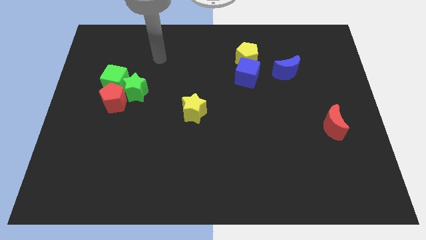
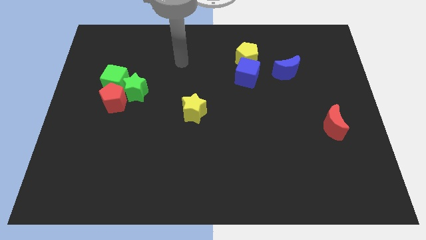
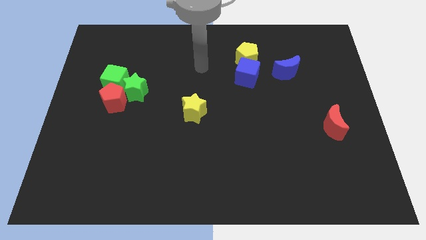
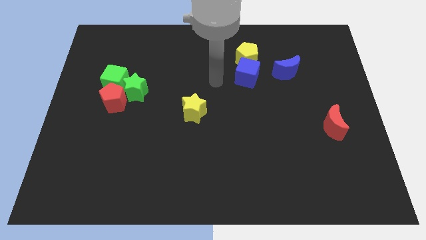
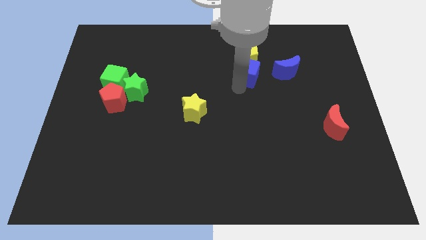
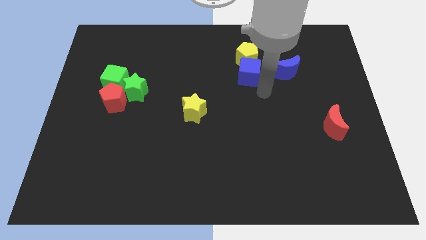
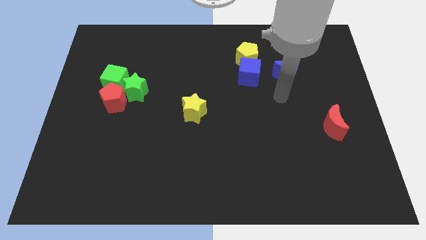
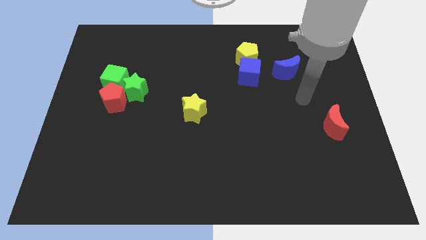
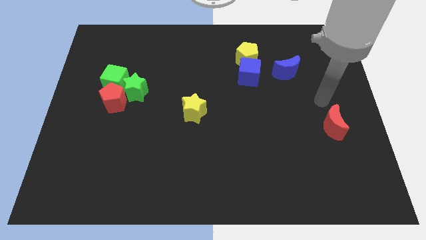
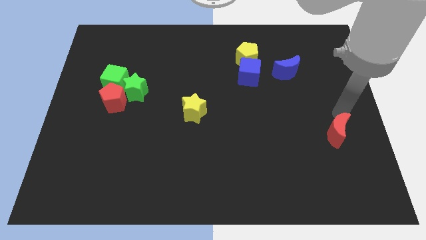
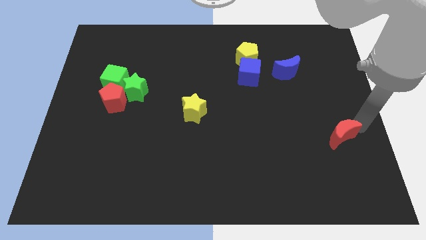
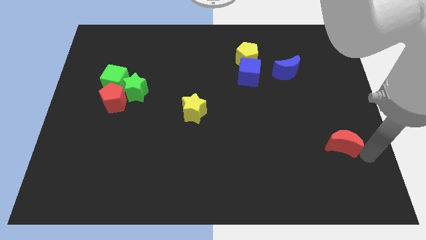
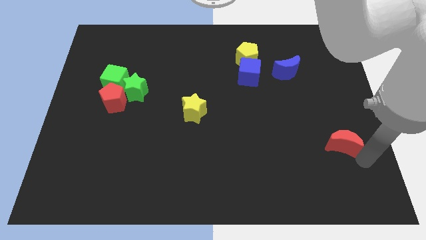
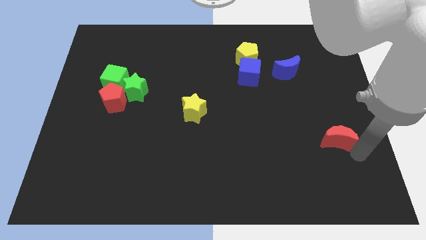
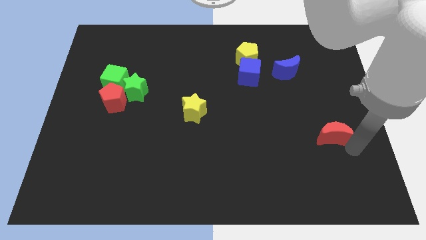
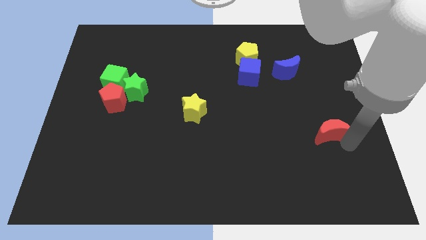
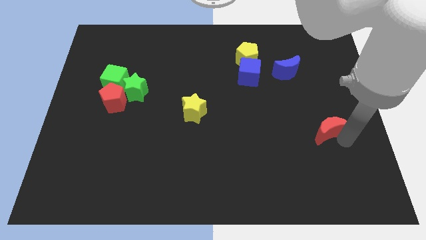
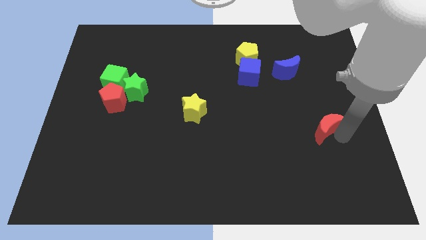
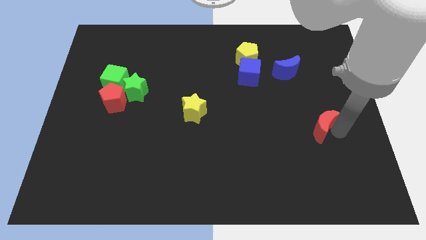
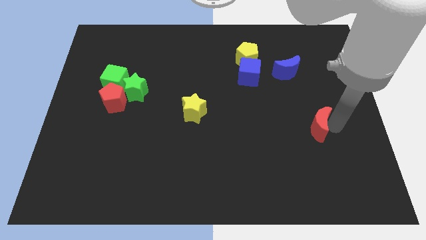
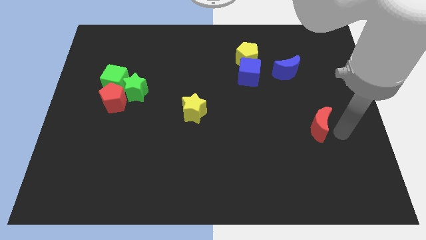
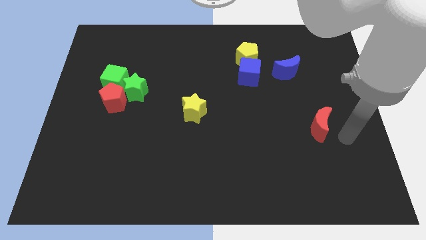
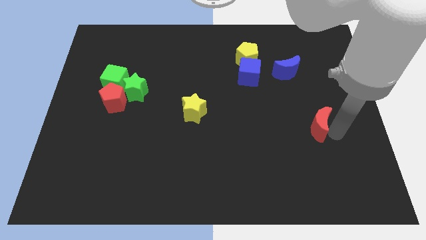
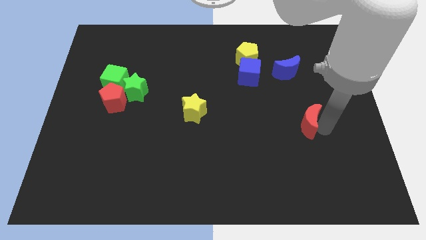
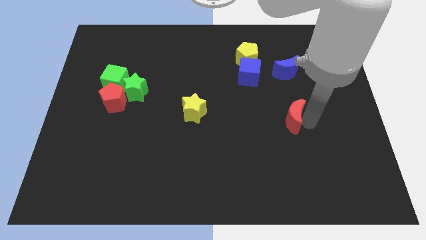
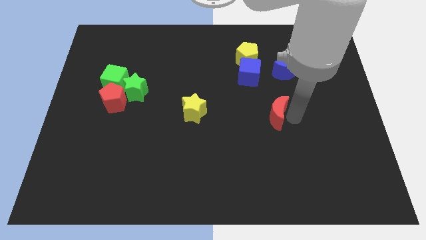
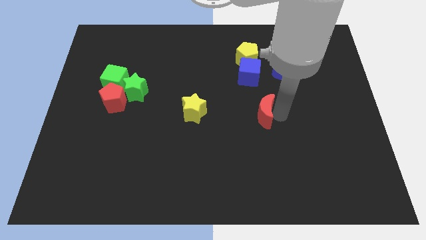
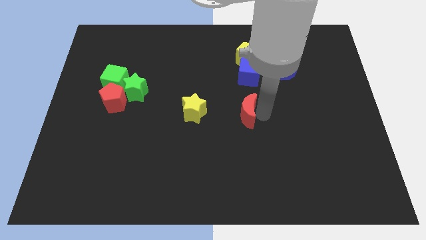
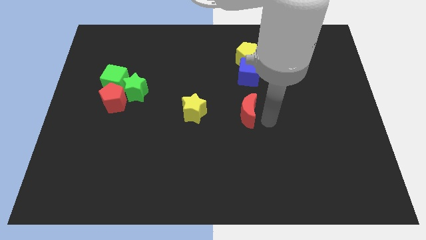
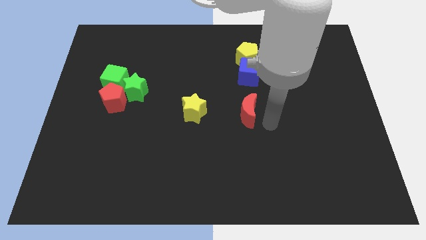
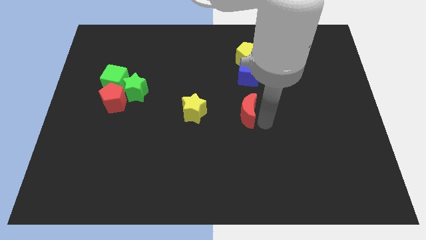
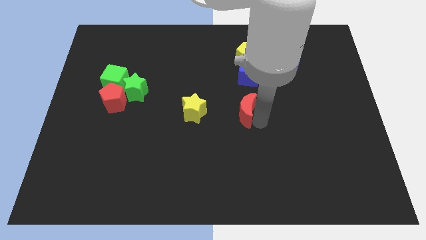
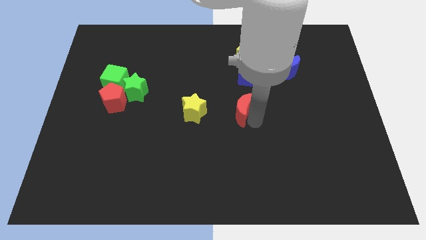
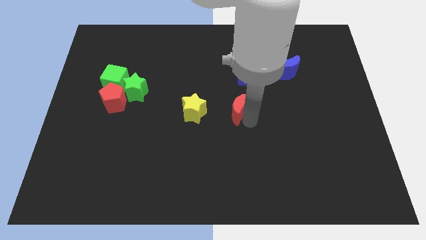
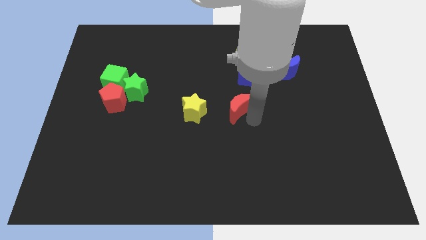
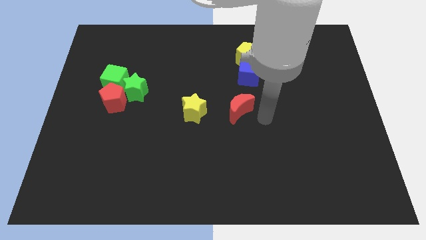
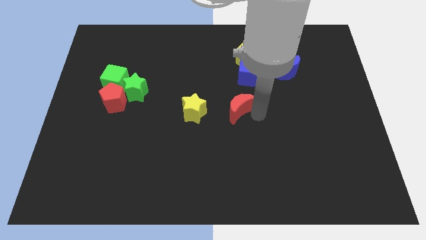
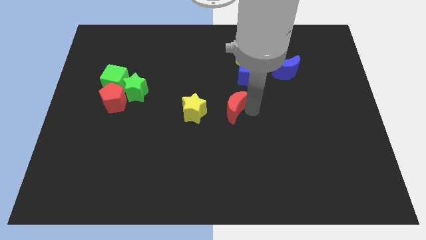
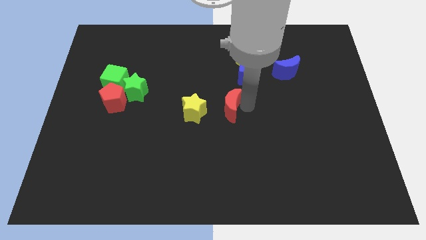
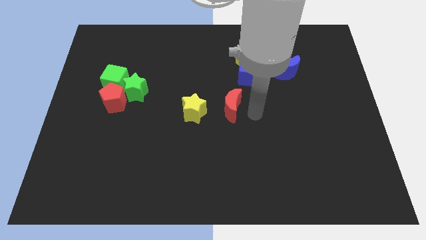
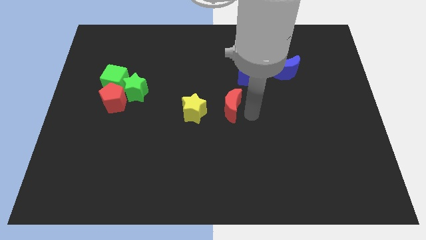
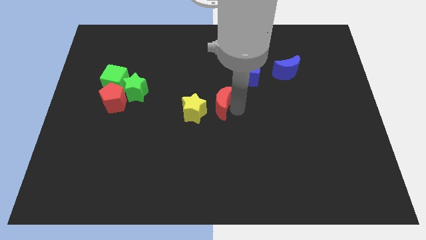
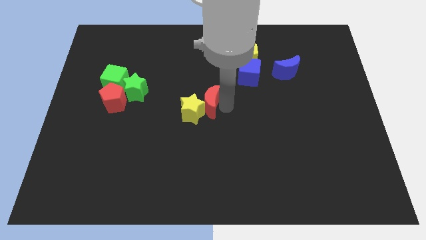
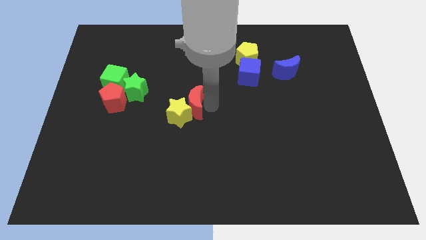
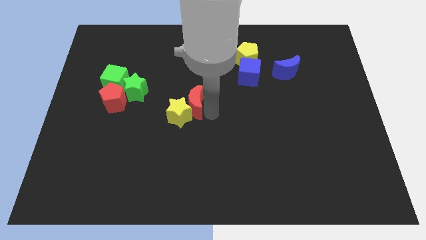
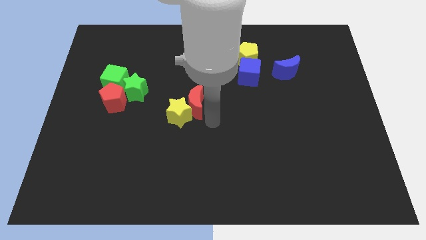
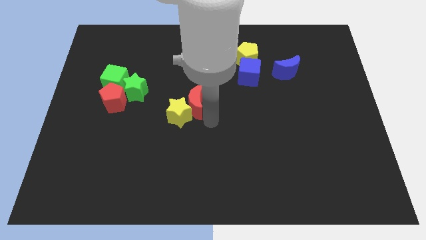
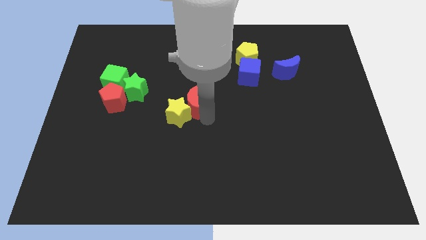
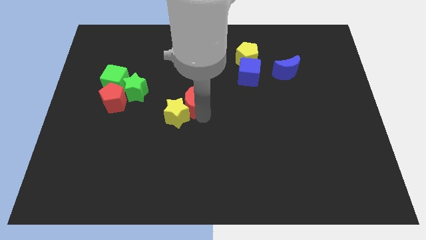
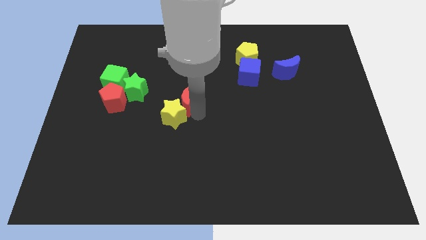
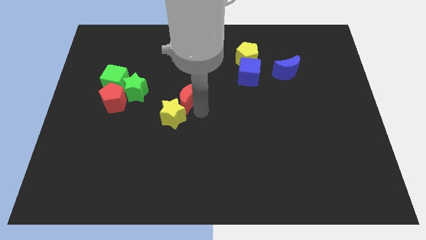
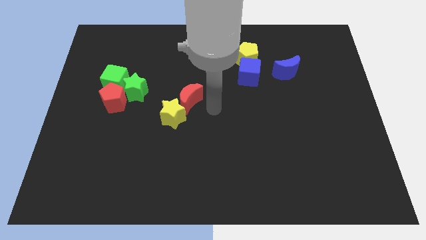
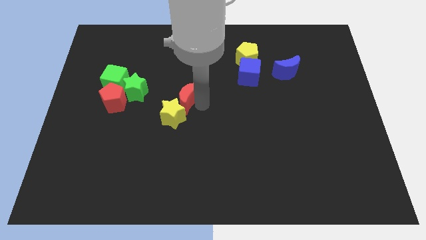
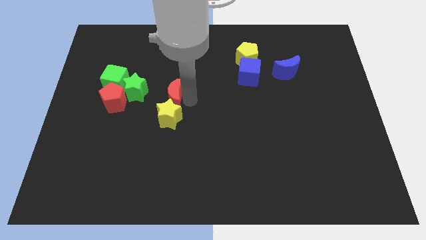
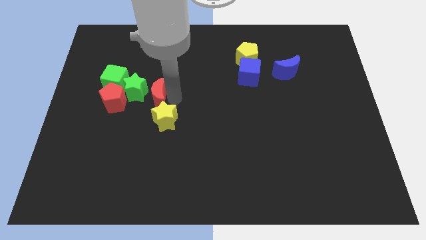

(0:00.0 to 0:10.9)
move the red moon close to the green star

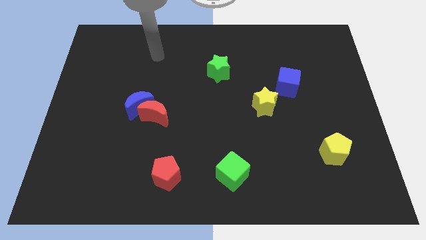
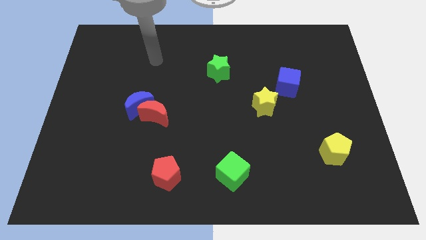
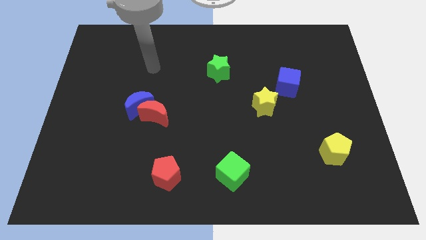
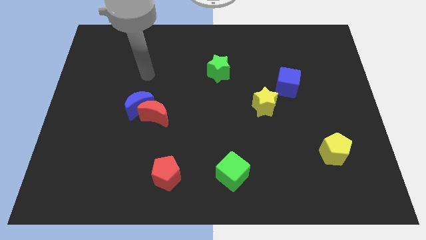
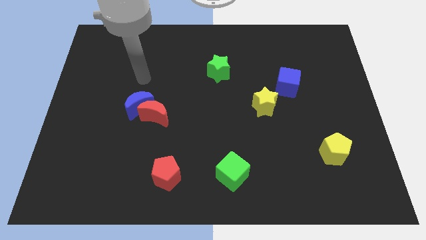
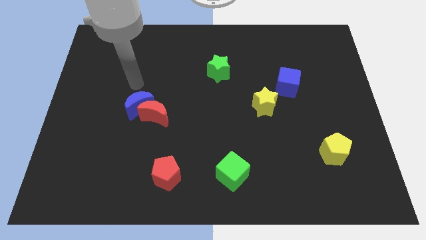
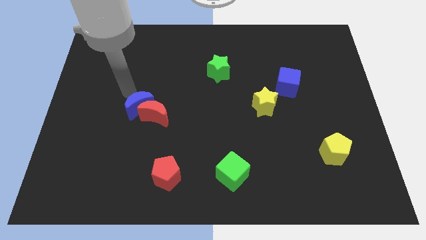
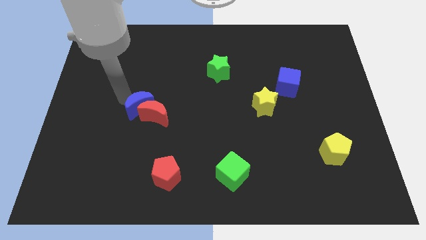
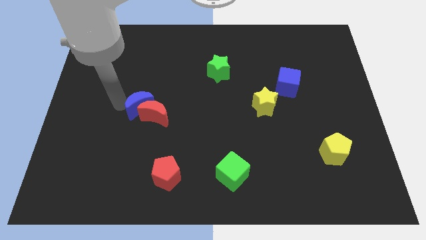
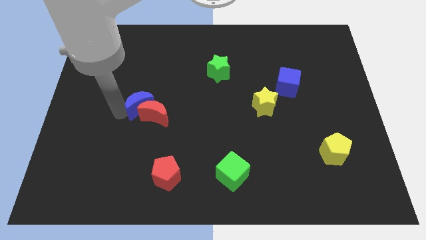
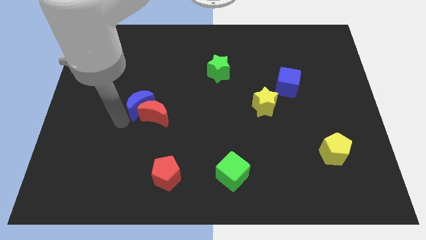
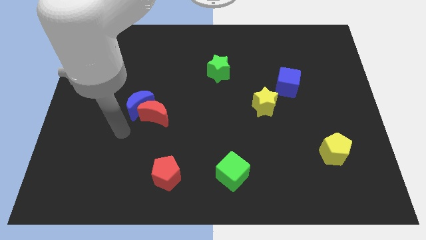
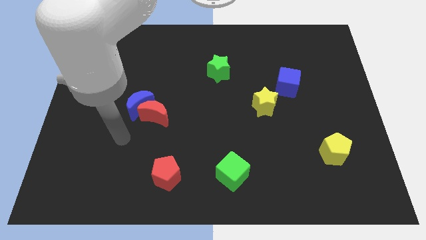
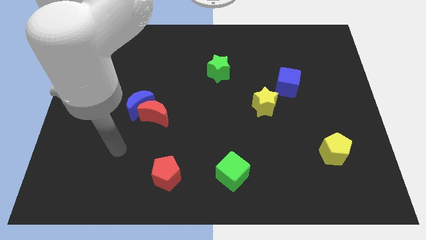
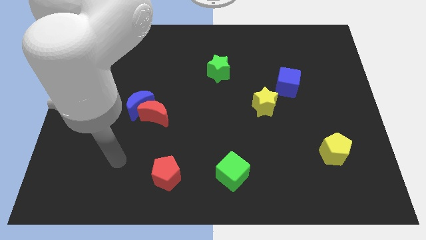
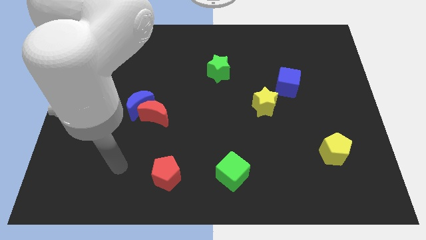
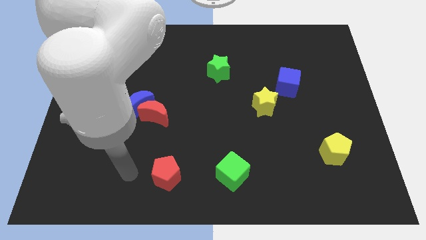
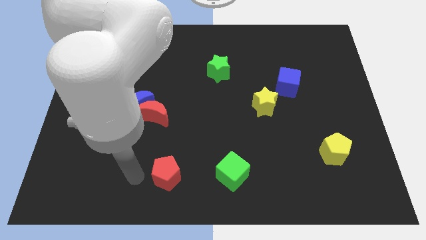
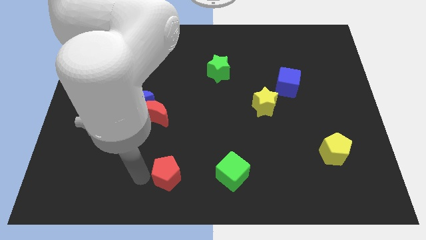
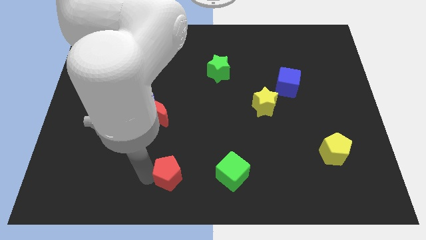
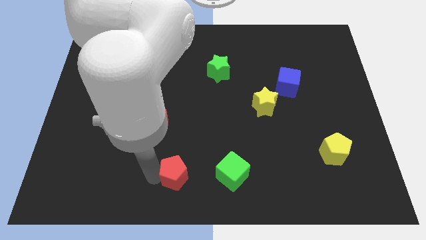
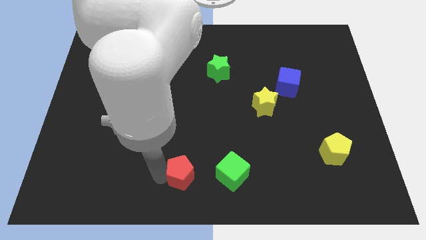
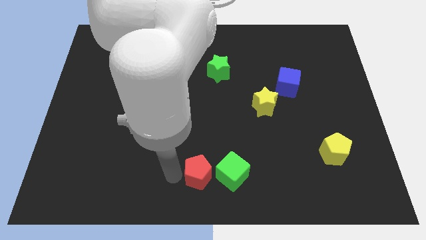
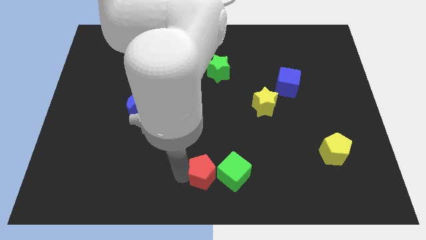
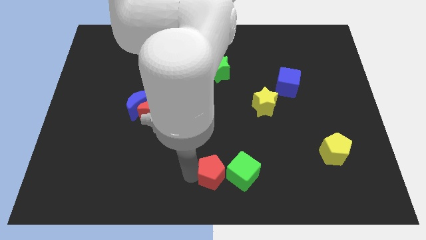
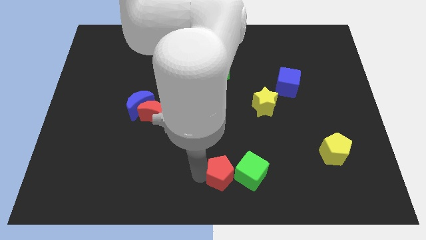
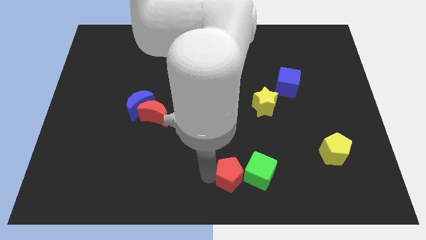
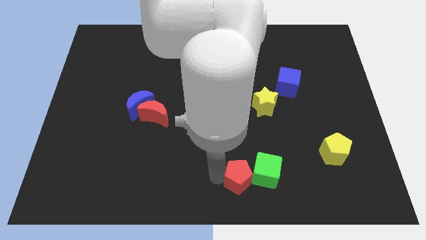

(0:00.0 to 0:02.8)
move the red pentagon towards the green cube
